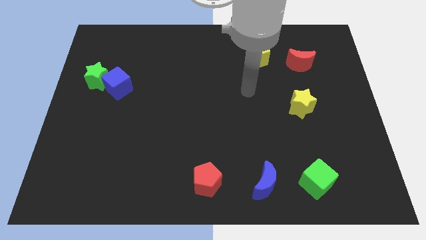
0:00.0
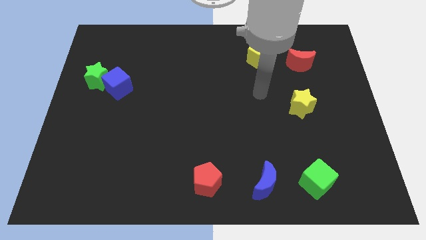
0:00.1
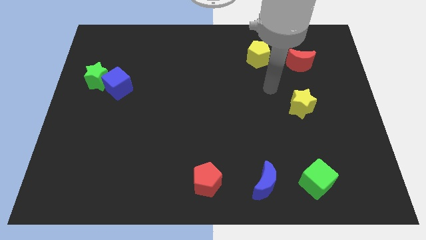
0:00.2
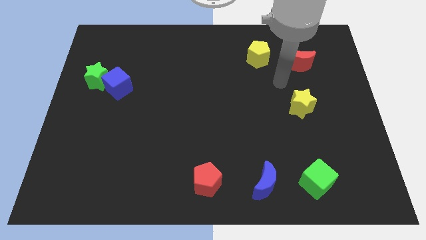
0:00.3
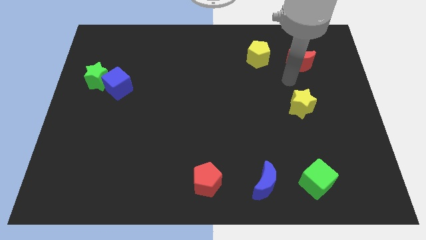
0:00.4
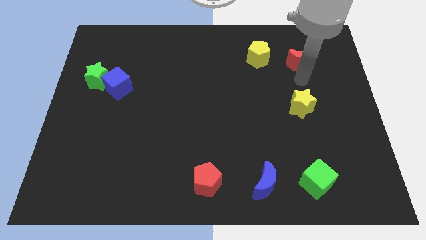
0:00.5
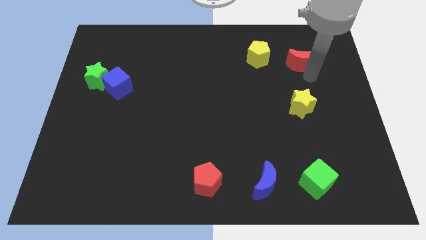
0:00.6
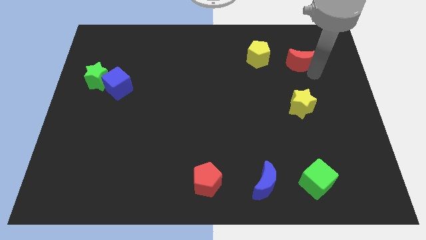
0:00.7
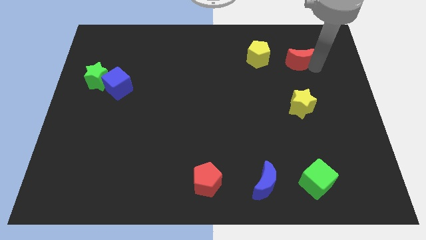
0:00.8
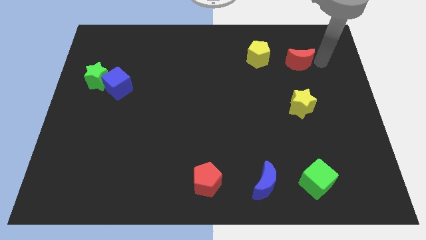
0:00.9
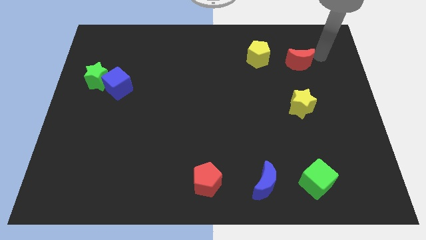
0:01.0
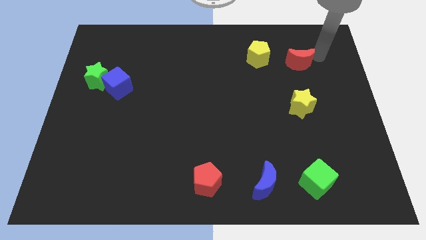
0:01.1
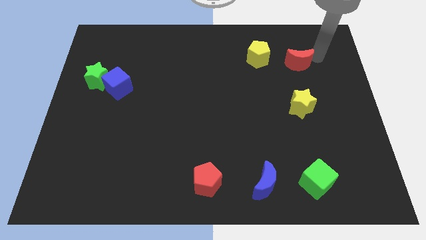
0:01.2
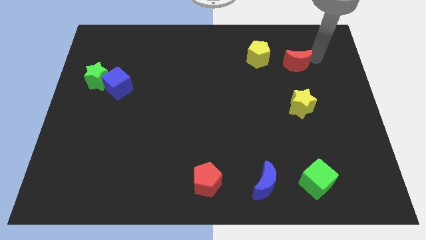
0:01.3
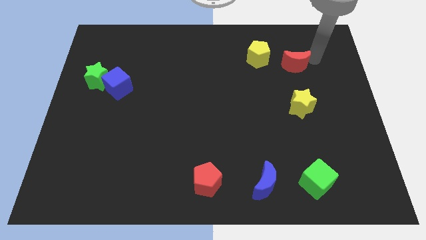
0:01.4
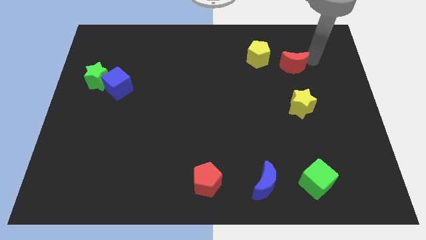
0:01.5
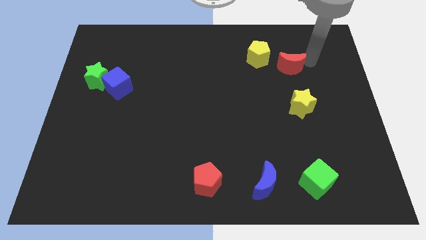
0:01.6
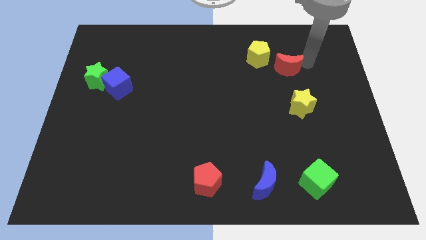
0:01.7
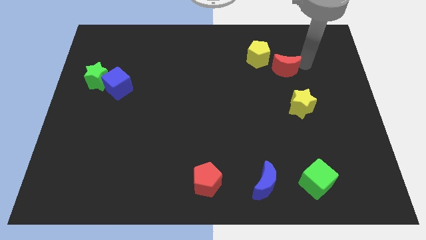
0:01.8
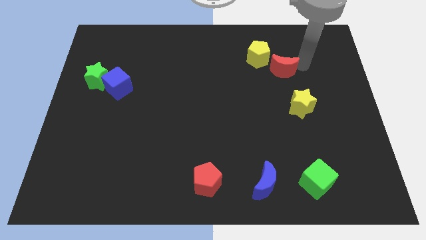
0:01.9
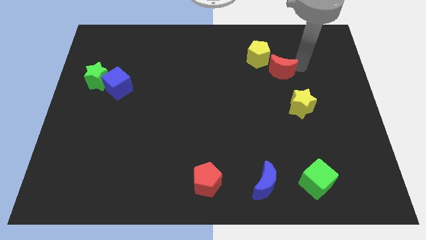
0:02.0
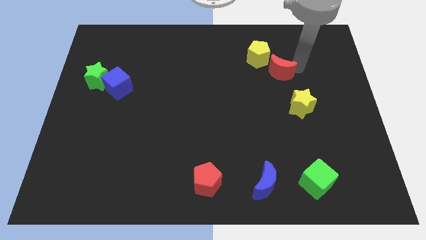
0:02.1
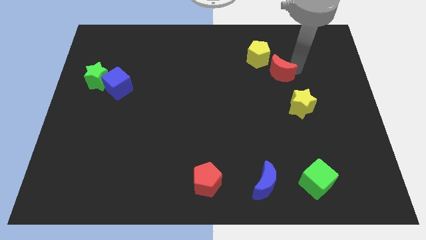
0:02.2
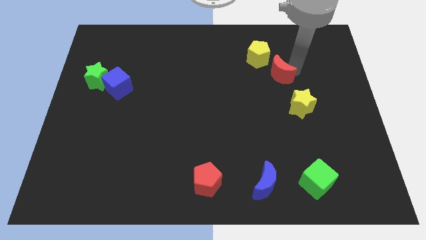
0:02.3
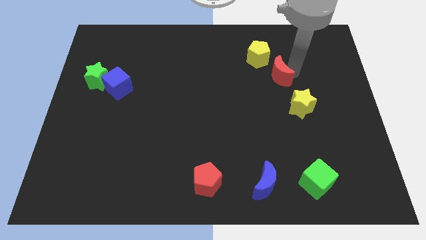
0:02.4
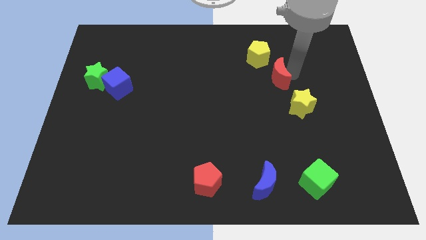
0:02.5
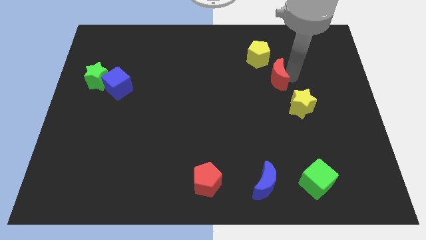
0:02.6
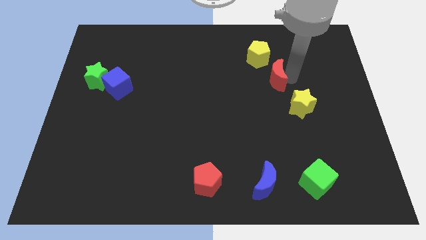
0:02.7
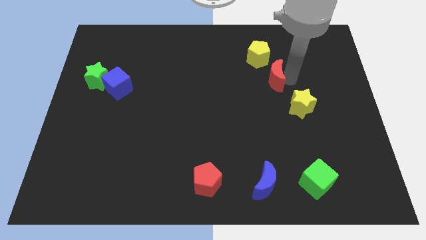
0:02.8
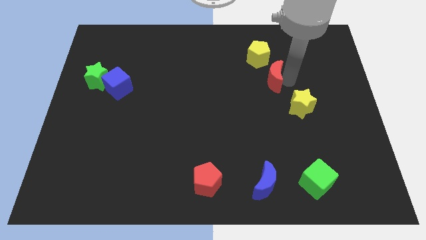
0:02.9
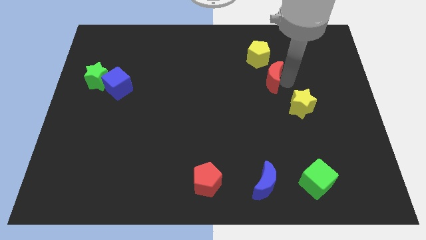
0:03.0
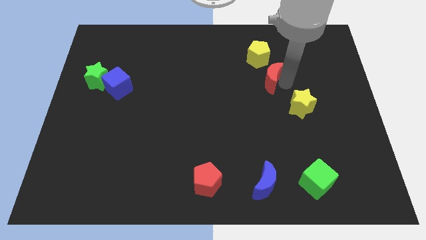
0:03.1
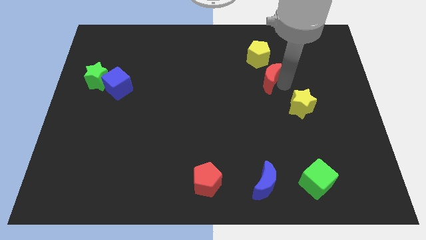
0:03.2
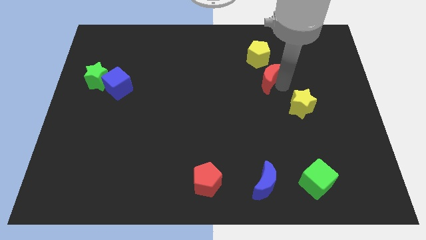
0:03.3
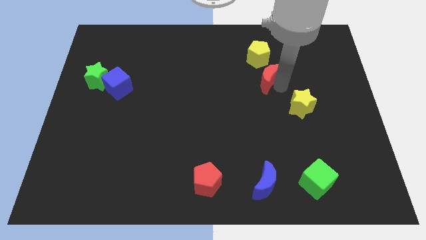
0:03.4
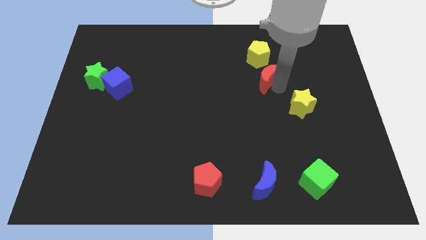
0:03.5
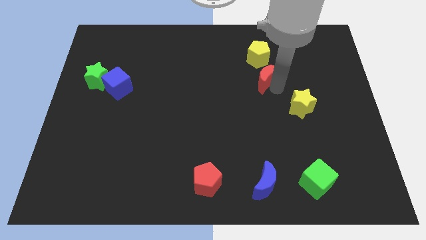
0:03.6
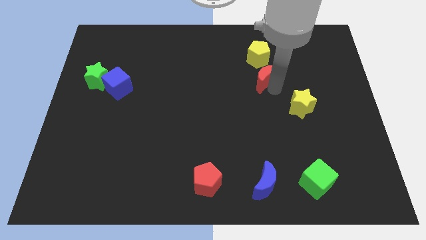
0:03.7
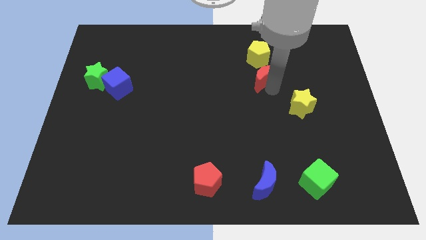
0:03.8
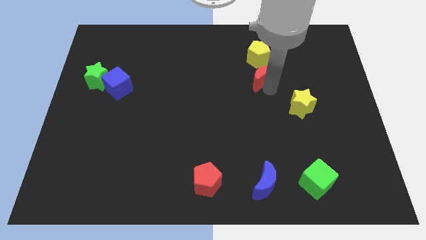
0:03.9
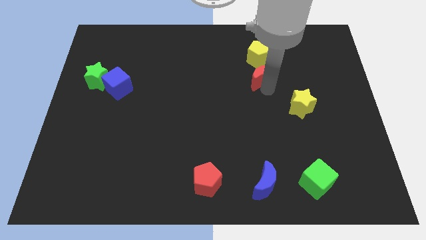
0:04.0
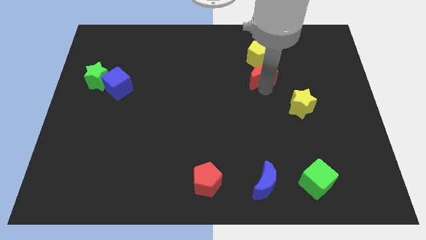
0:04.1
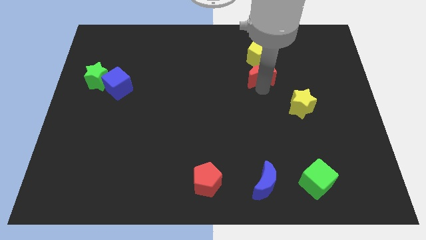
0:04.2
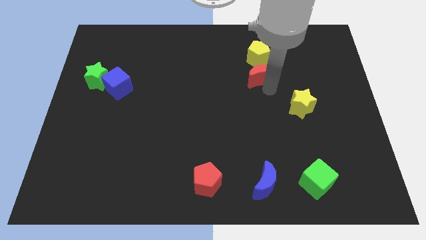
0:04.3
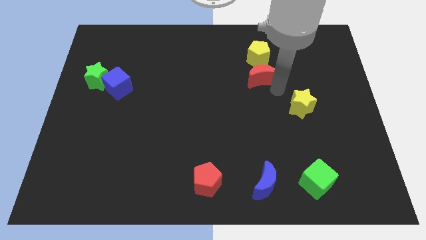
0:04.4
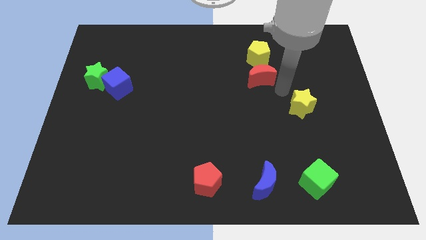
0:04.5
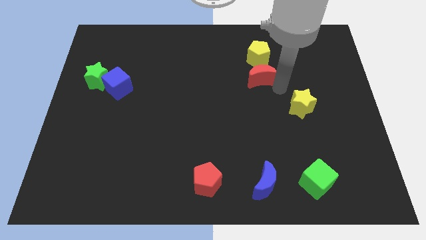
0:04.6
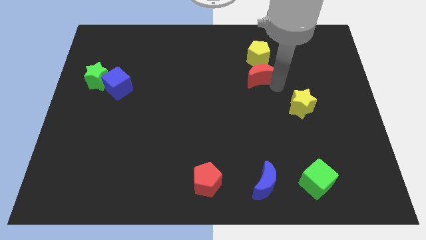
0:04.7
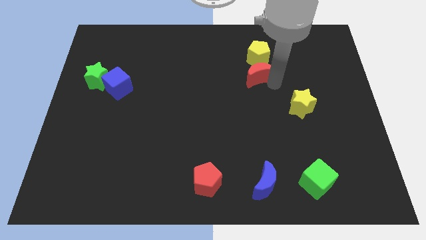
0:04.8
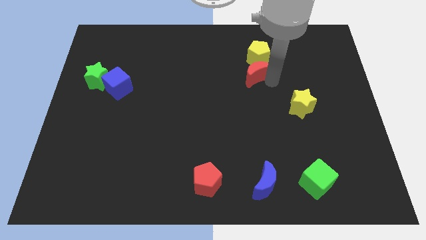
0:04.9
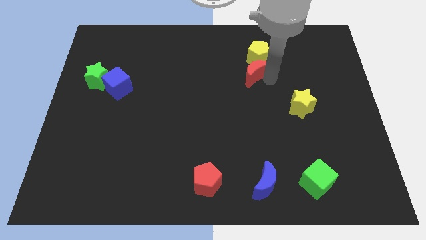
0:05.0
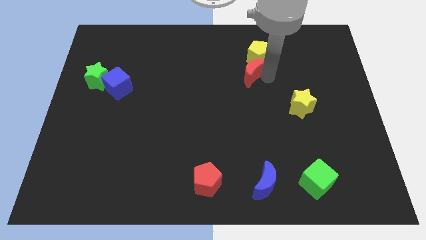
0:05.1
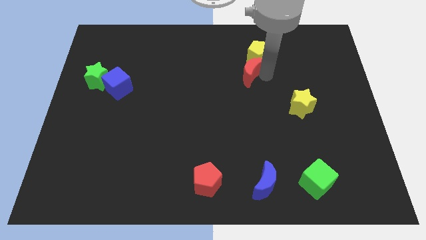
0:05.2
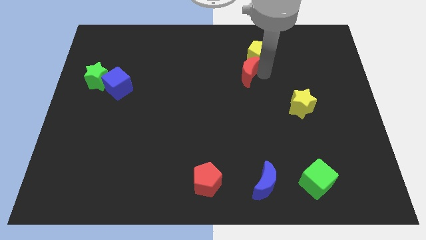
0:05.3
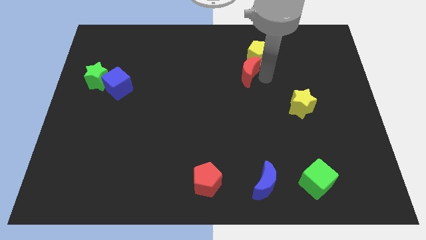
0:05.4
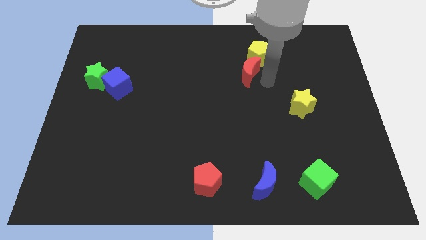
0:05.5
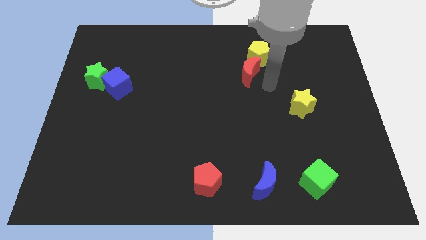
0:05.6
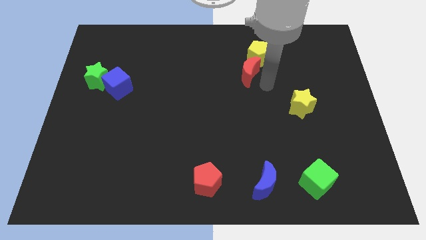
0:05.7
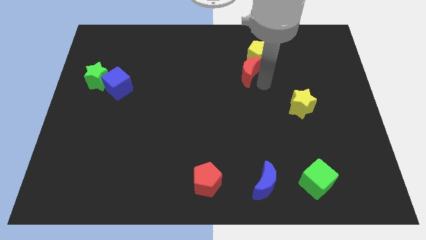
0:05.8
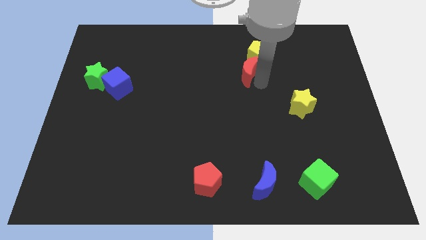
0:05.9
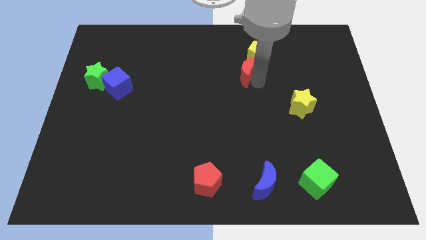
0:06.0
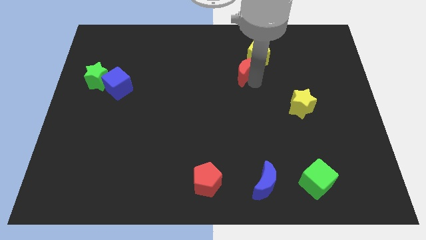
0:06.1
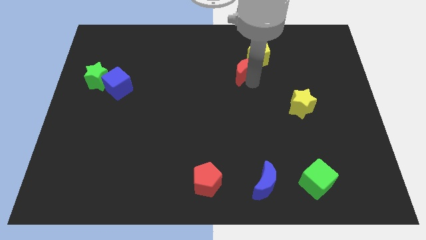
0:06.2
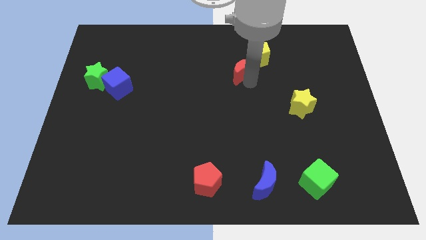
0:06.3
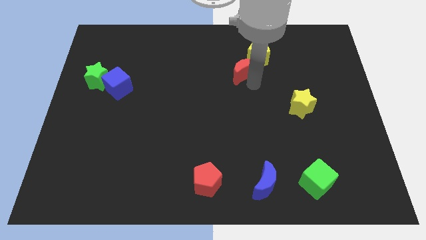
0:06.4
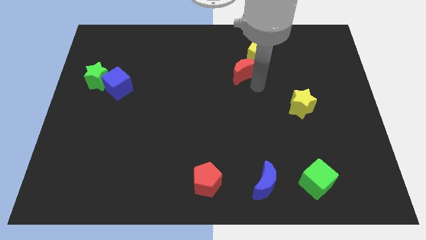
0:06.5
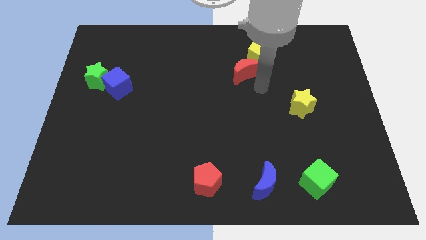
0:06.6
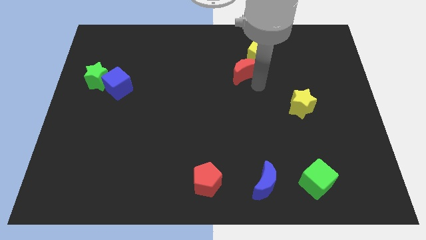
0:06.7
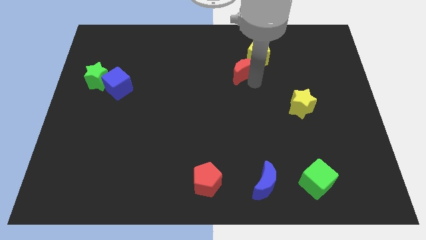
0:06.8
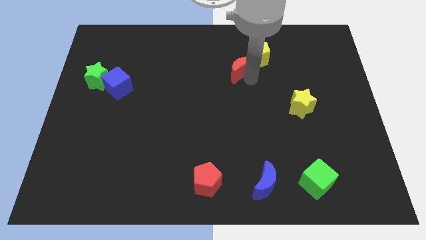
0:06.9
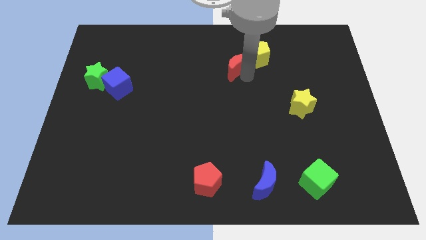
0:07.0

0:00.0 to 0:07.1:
push the red moon to the left side of the yellow pentagon
